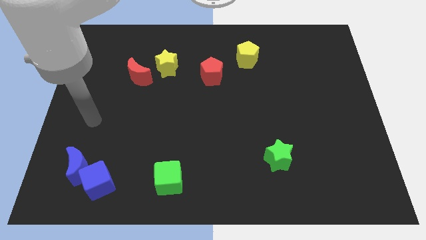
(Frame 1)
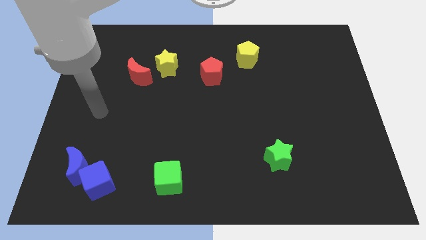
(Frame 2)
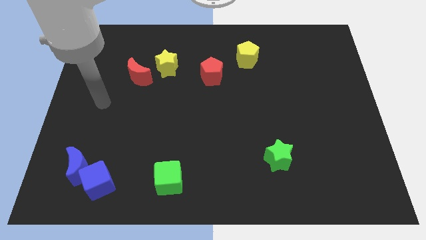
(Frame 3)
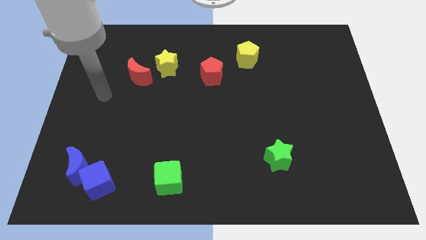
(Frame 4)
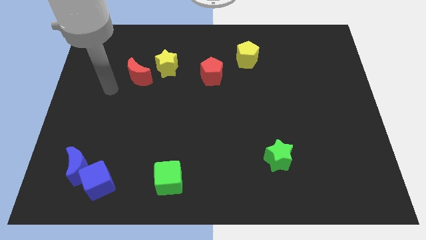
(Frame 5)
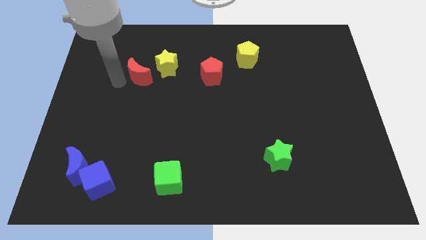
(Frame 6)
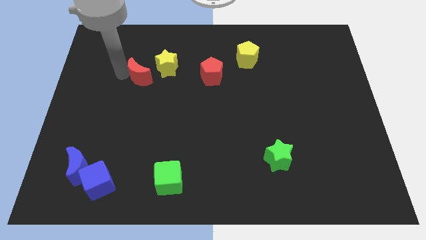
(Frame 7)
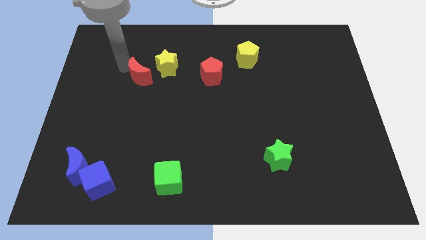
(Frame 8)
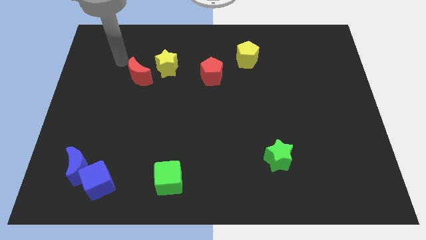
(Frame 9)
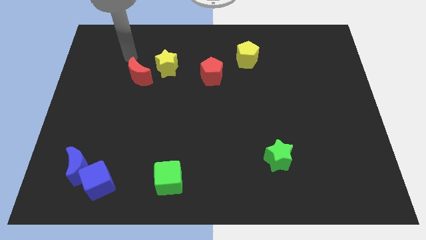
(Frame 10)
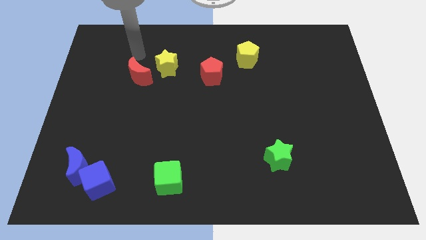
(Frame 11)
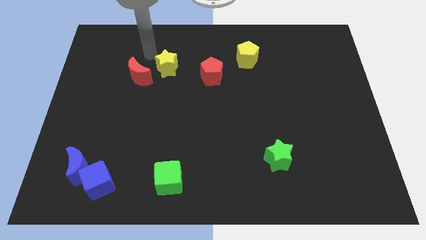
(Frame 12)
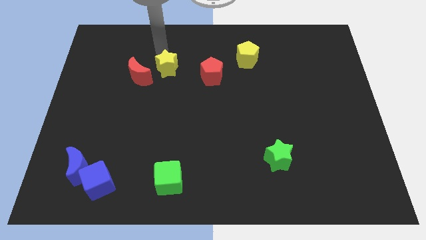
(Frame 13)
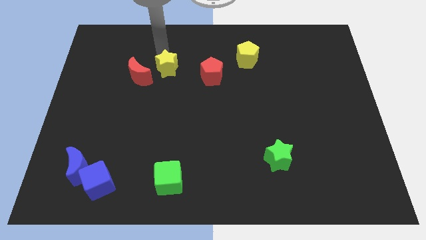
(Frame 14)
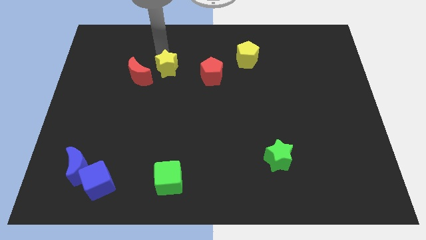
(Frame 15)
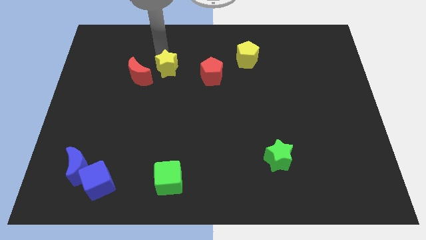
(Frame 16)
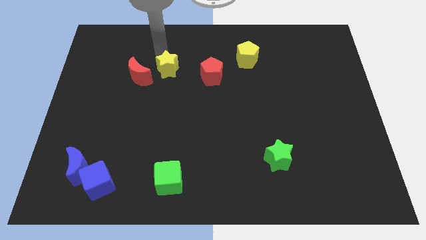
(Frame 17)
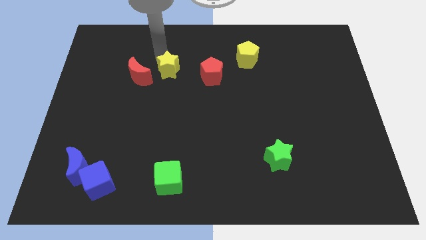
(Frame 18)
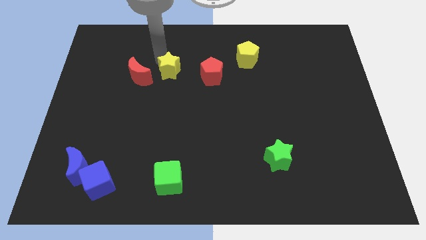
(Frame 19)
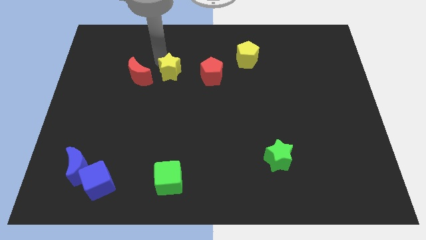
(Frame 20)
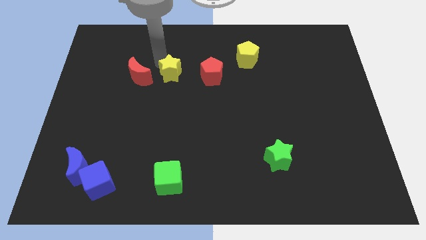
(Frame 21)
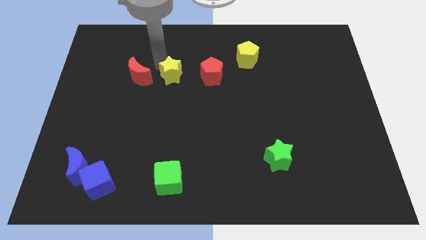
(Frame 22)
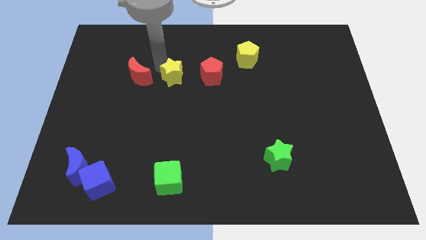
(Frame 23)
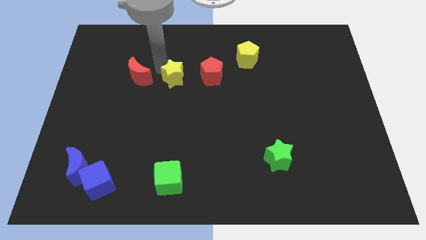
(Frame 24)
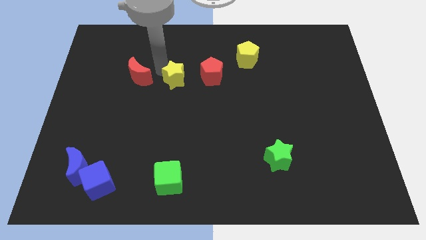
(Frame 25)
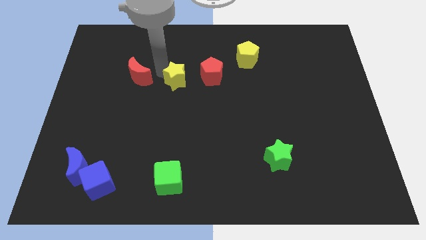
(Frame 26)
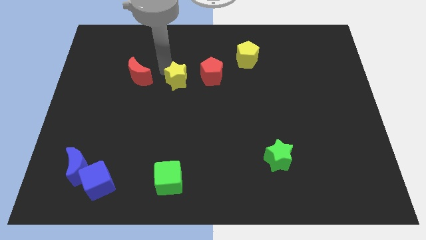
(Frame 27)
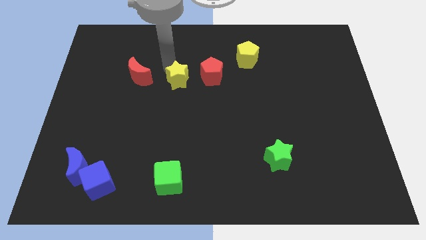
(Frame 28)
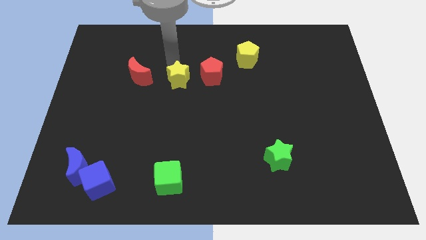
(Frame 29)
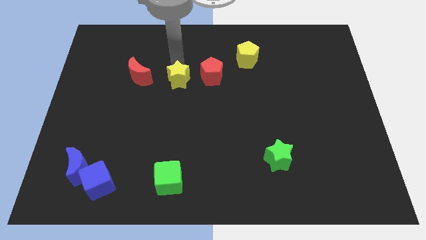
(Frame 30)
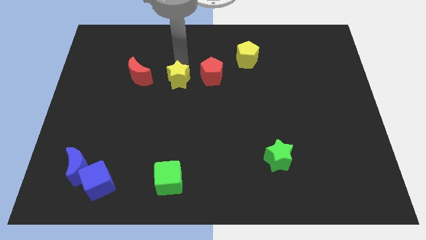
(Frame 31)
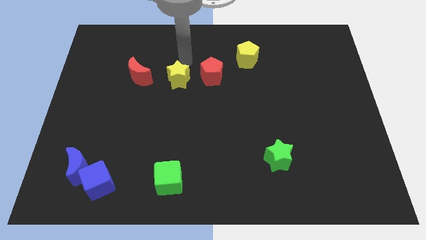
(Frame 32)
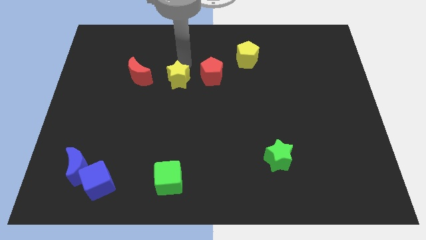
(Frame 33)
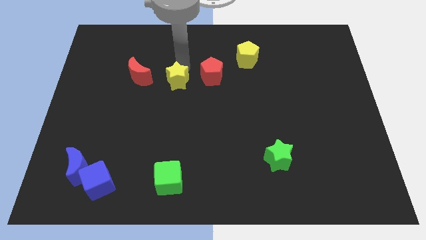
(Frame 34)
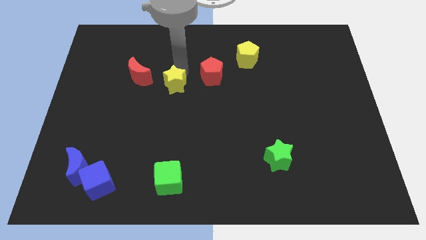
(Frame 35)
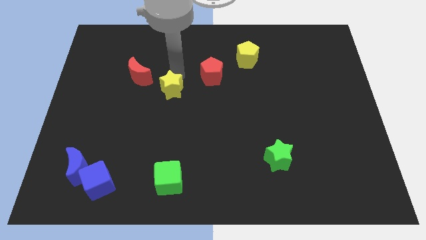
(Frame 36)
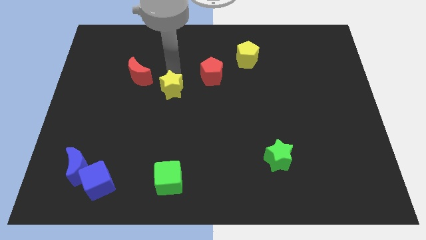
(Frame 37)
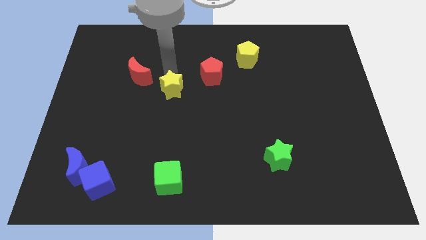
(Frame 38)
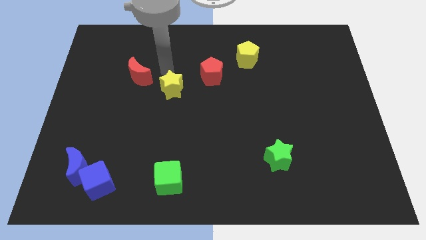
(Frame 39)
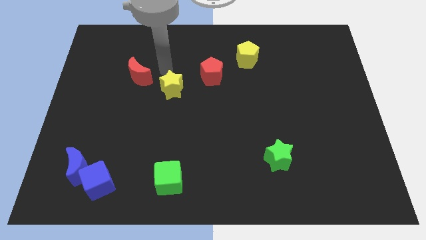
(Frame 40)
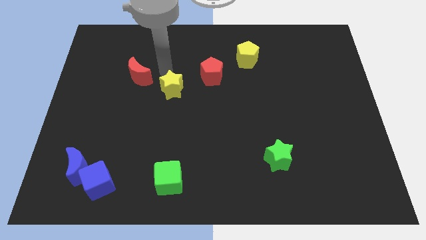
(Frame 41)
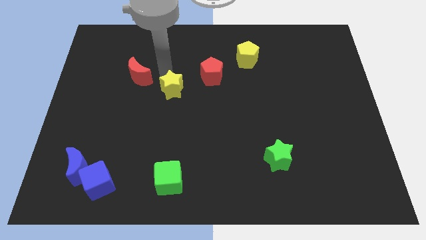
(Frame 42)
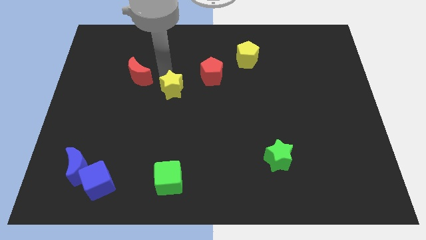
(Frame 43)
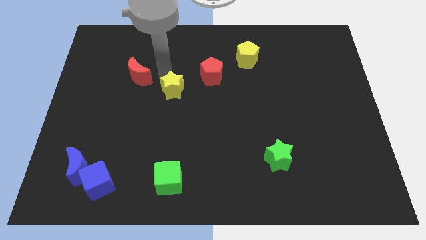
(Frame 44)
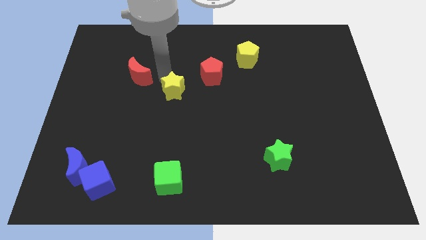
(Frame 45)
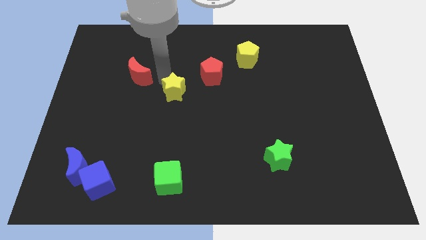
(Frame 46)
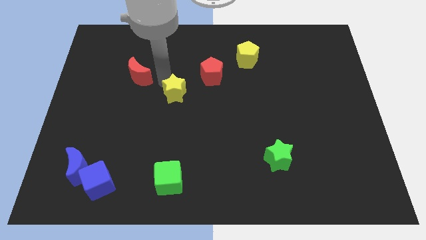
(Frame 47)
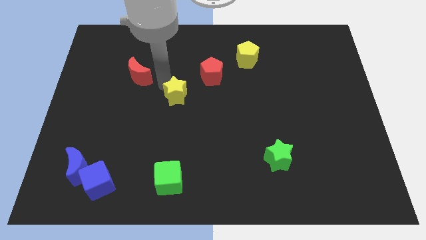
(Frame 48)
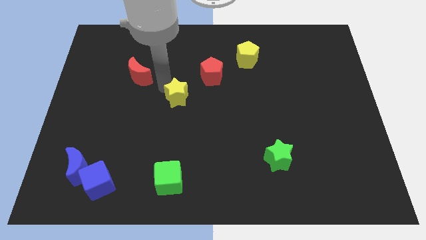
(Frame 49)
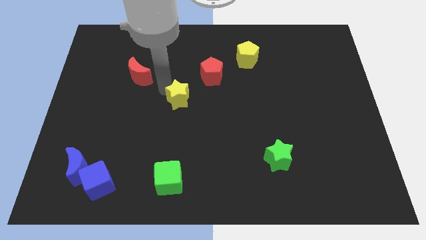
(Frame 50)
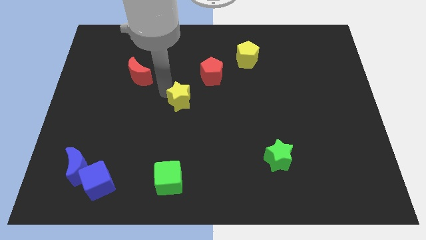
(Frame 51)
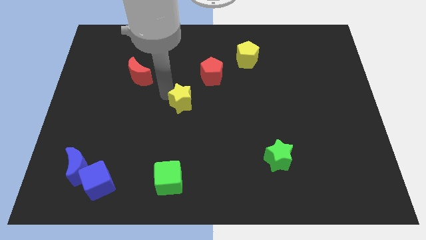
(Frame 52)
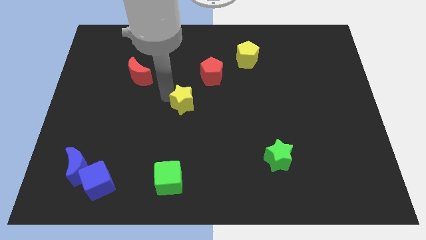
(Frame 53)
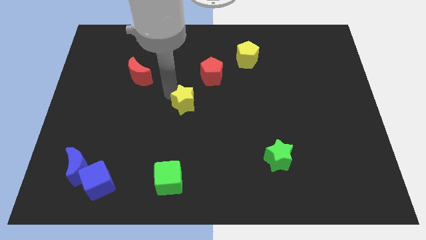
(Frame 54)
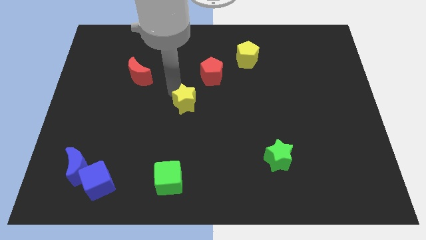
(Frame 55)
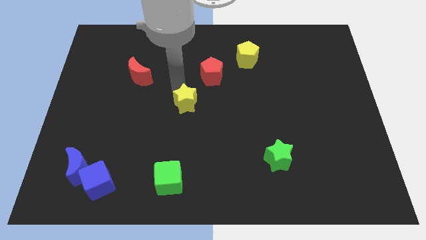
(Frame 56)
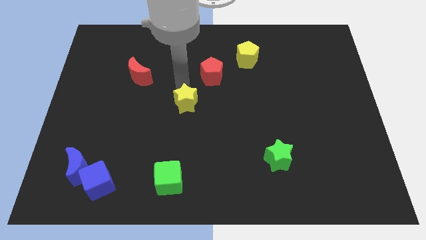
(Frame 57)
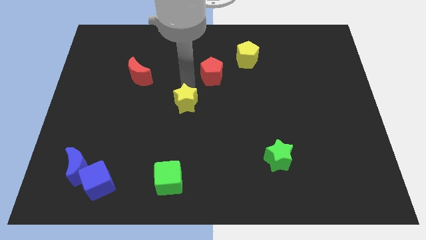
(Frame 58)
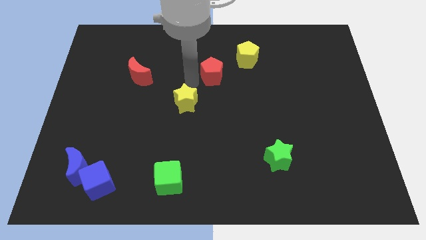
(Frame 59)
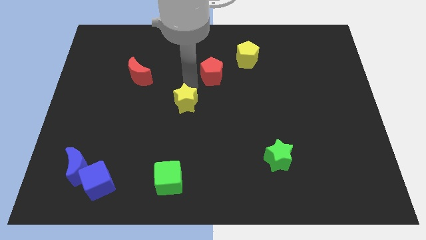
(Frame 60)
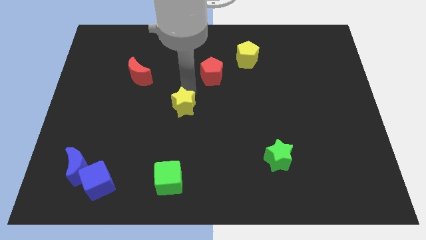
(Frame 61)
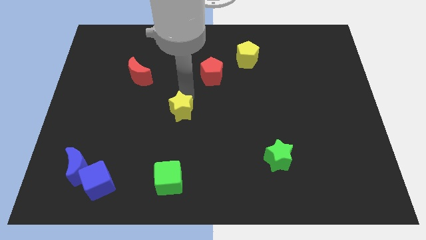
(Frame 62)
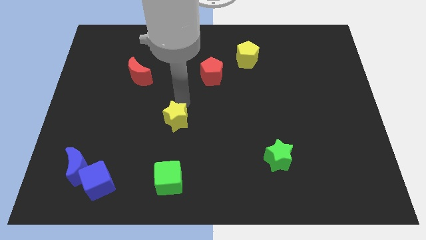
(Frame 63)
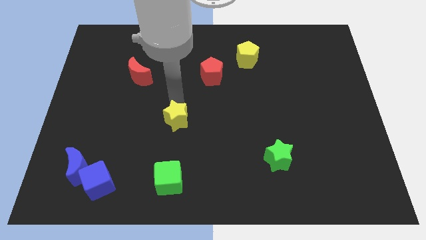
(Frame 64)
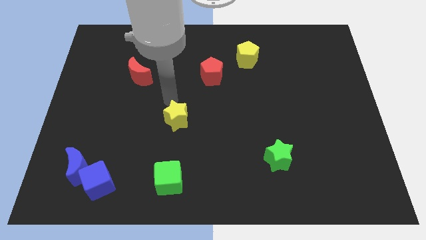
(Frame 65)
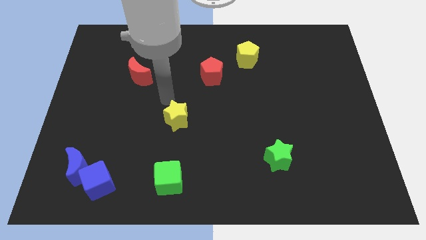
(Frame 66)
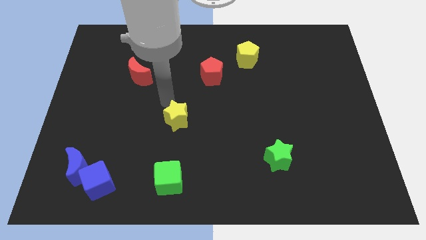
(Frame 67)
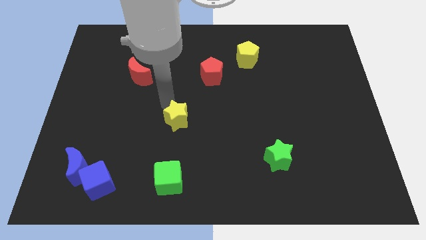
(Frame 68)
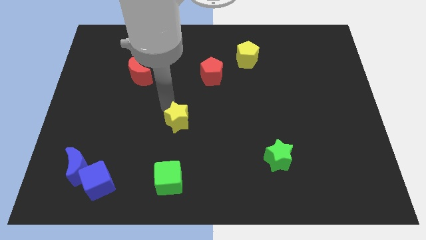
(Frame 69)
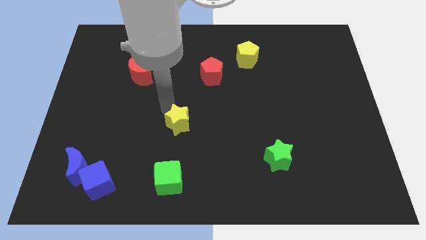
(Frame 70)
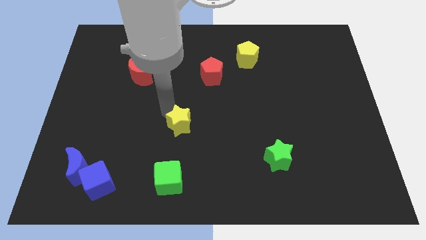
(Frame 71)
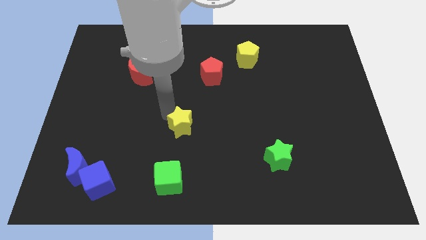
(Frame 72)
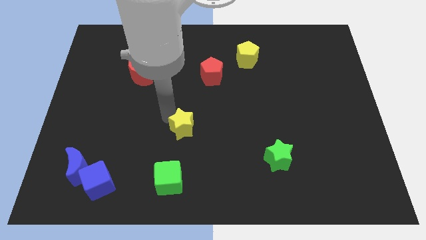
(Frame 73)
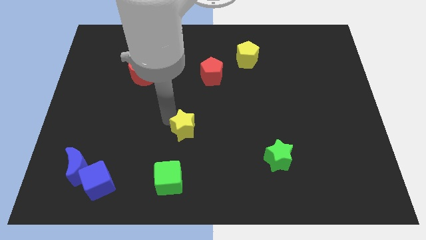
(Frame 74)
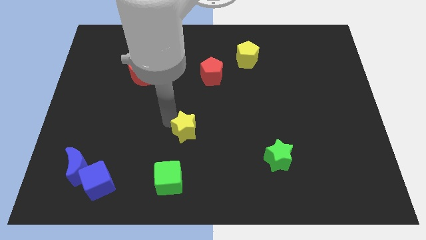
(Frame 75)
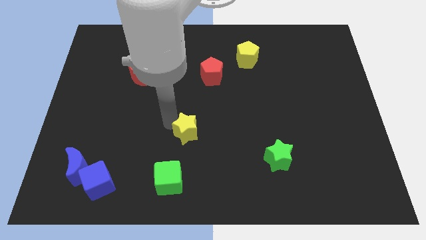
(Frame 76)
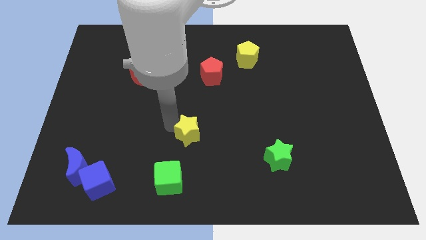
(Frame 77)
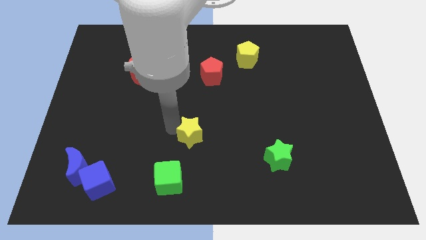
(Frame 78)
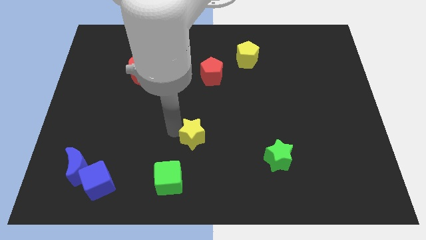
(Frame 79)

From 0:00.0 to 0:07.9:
move the yellow star to the top right side of the green cube
